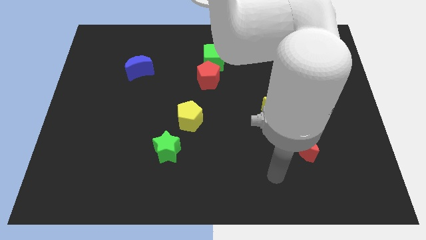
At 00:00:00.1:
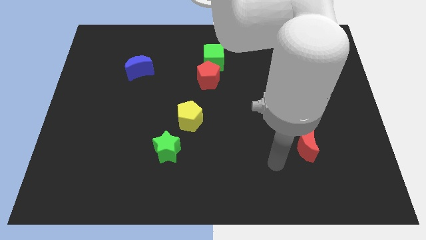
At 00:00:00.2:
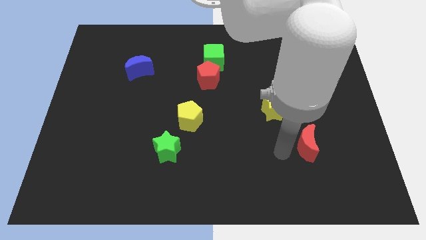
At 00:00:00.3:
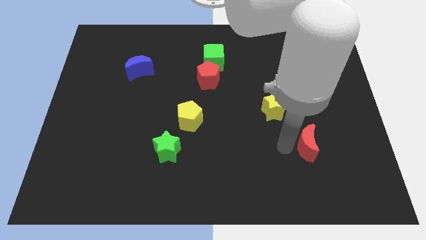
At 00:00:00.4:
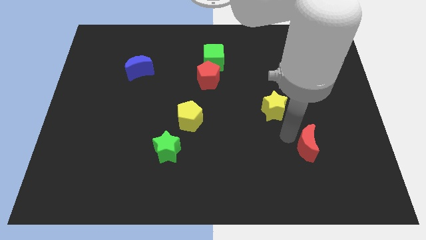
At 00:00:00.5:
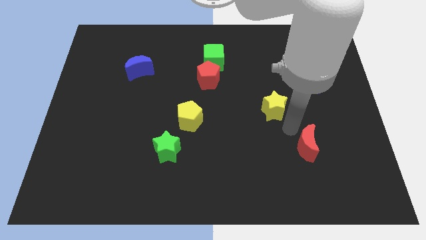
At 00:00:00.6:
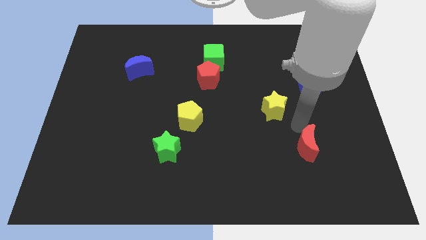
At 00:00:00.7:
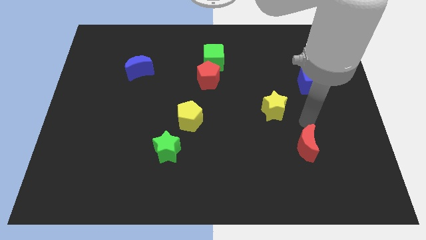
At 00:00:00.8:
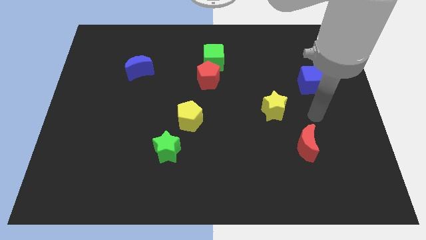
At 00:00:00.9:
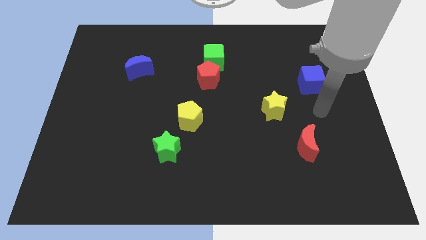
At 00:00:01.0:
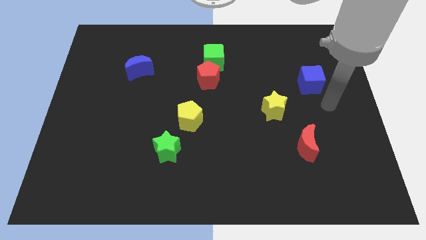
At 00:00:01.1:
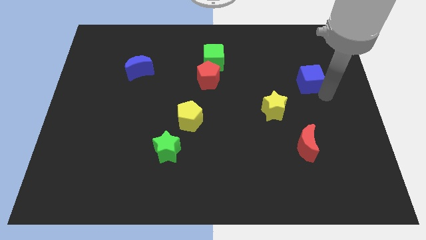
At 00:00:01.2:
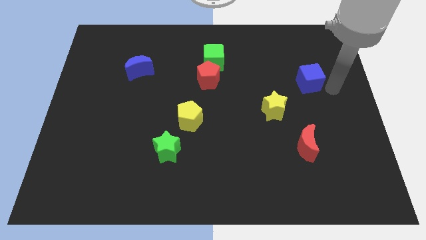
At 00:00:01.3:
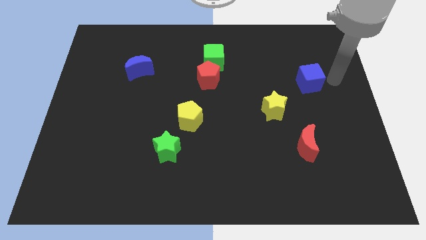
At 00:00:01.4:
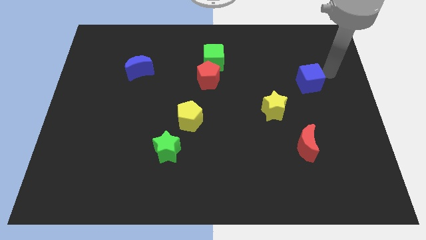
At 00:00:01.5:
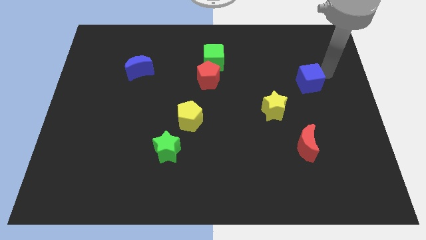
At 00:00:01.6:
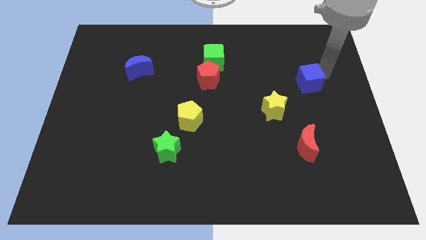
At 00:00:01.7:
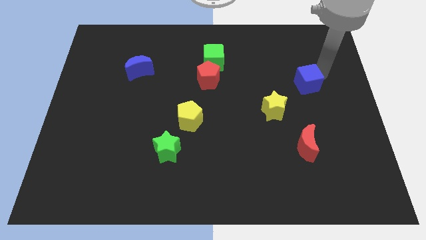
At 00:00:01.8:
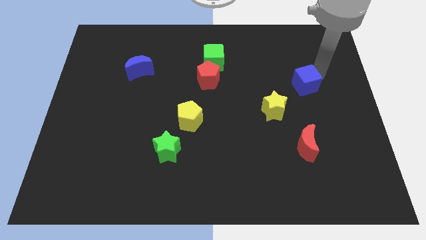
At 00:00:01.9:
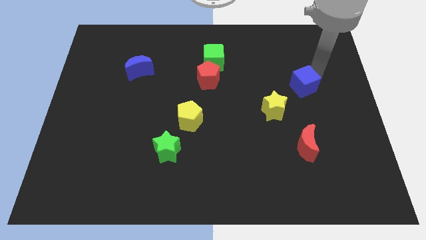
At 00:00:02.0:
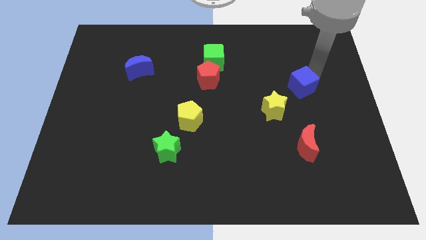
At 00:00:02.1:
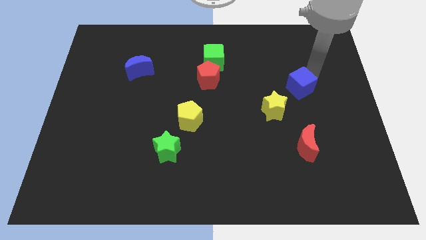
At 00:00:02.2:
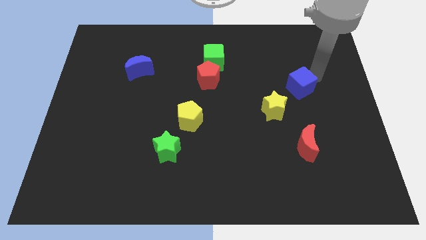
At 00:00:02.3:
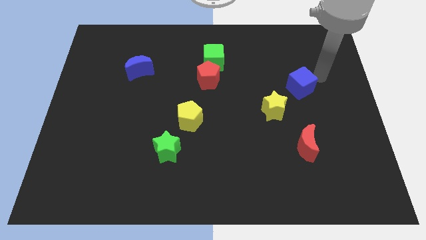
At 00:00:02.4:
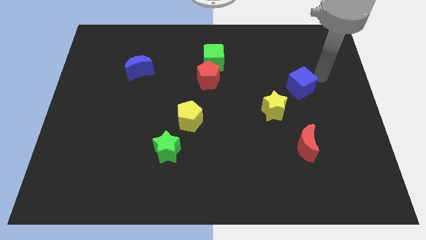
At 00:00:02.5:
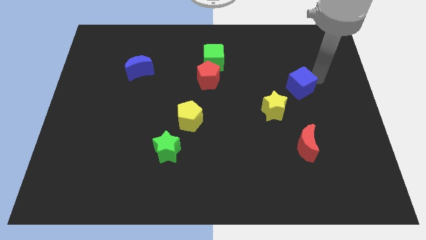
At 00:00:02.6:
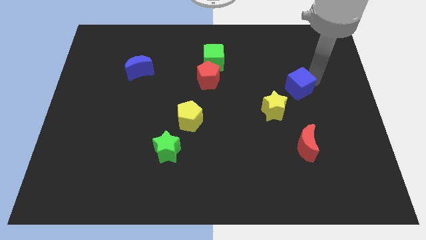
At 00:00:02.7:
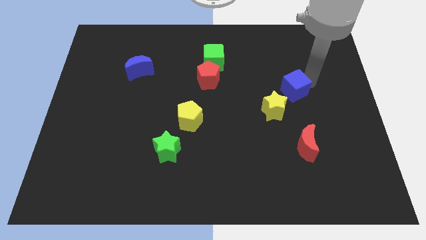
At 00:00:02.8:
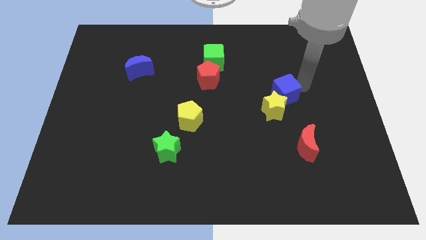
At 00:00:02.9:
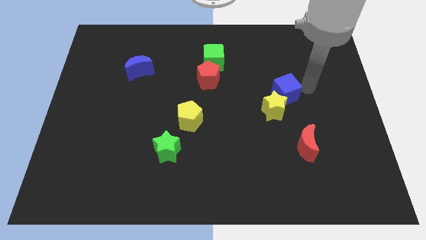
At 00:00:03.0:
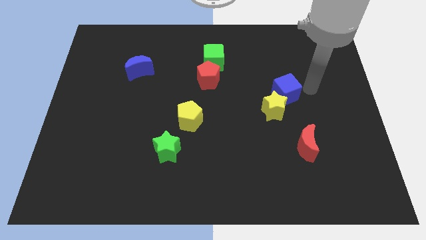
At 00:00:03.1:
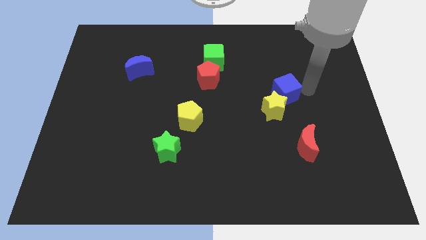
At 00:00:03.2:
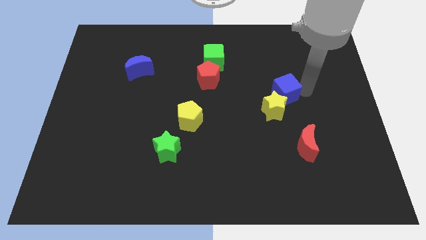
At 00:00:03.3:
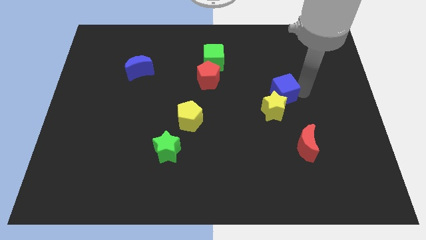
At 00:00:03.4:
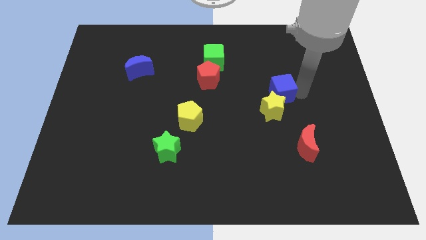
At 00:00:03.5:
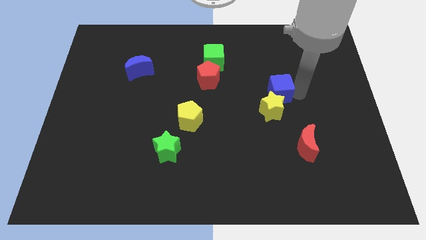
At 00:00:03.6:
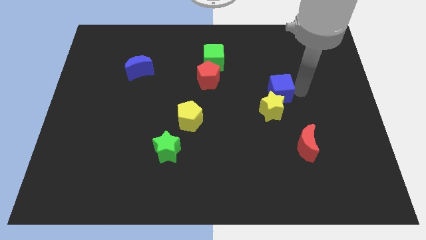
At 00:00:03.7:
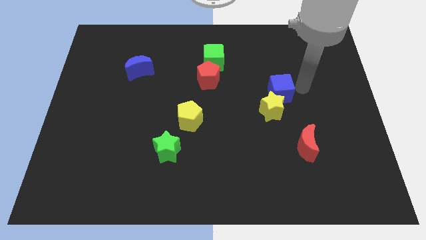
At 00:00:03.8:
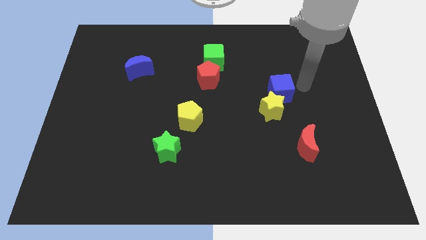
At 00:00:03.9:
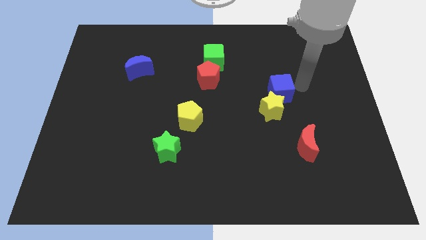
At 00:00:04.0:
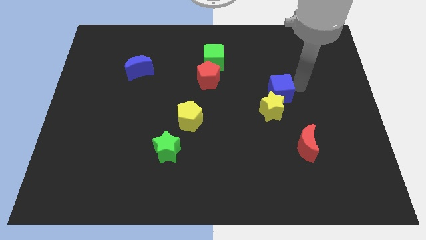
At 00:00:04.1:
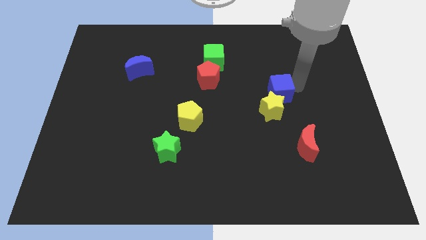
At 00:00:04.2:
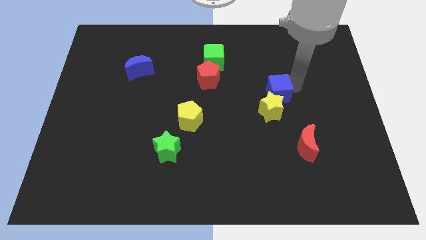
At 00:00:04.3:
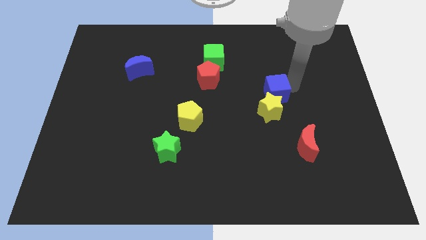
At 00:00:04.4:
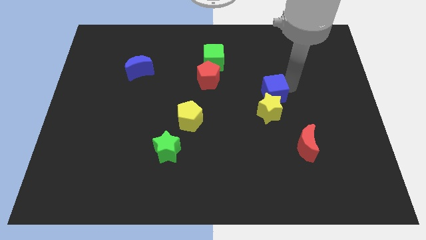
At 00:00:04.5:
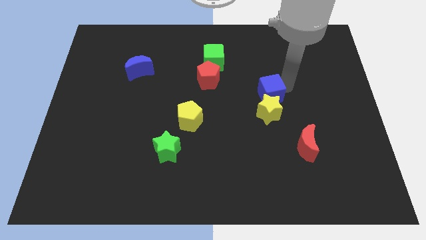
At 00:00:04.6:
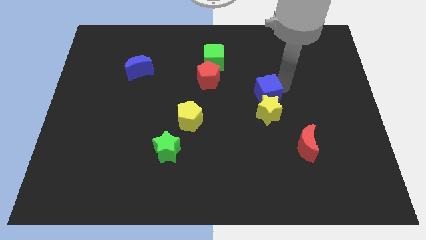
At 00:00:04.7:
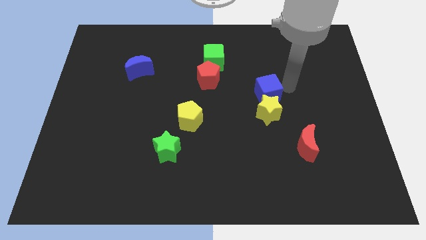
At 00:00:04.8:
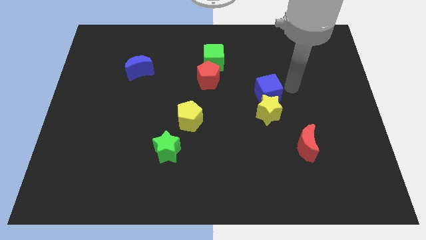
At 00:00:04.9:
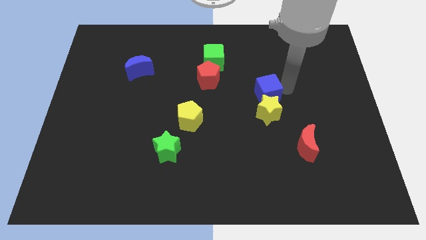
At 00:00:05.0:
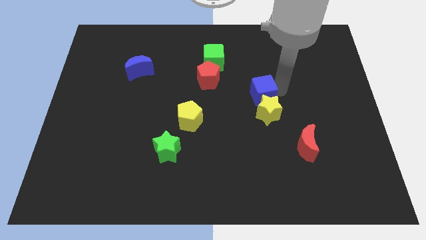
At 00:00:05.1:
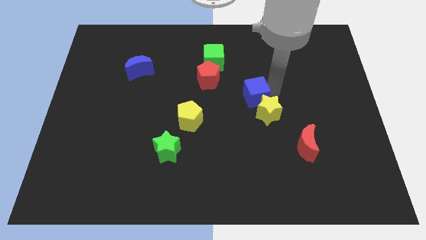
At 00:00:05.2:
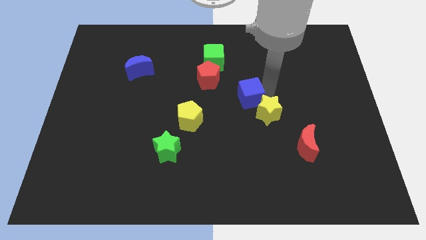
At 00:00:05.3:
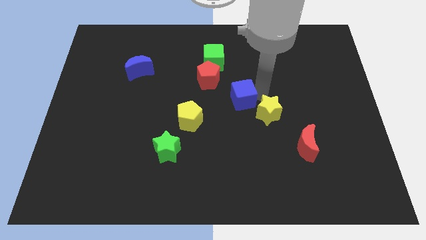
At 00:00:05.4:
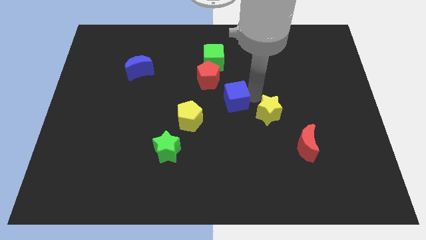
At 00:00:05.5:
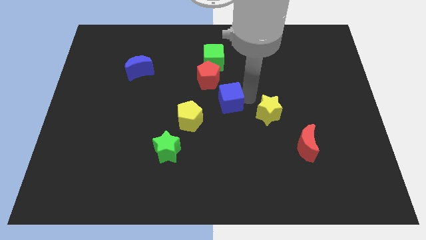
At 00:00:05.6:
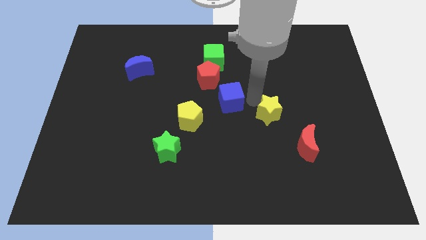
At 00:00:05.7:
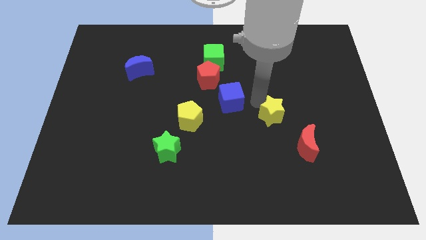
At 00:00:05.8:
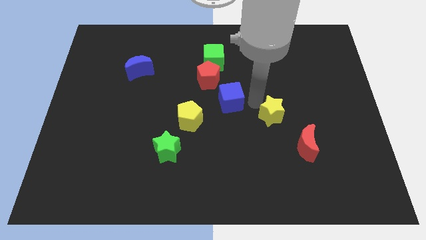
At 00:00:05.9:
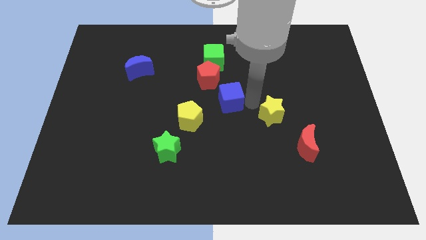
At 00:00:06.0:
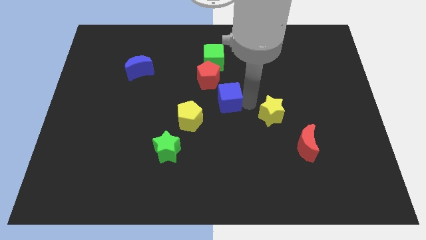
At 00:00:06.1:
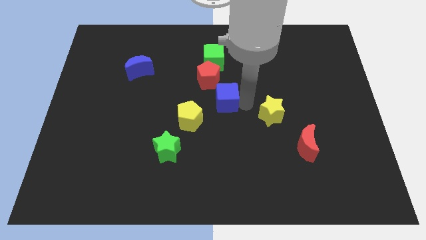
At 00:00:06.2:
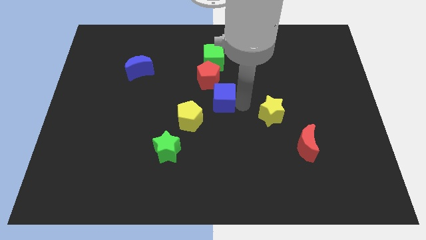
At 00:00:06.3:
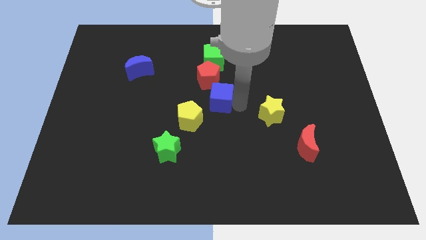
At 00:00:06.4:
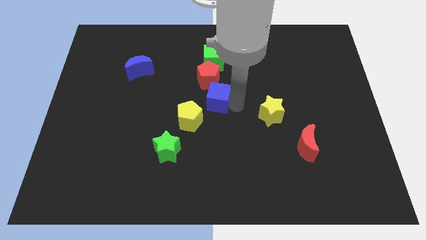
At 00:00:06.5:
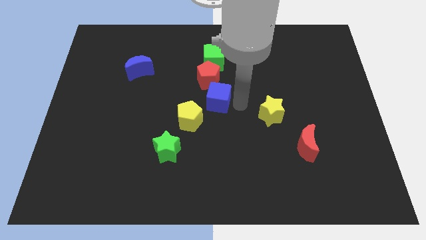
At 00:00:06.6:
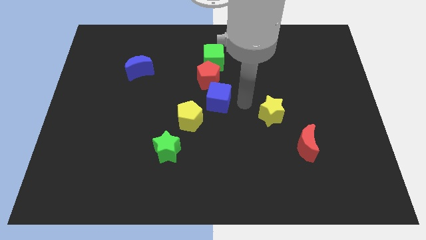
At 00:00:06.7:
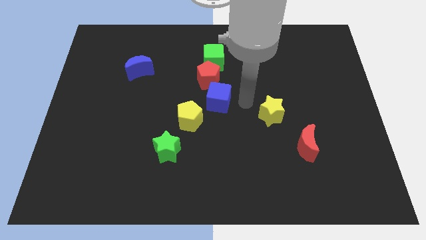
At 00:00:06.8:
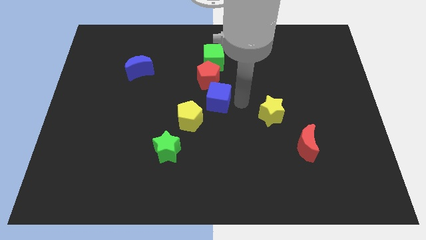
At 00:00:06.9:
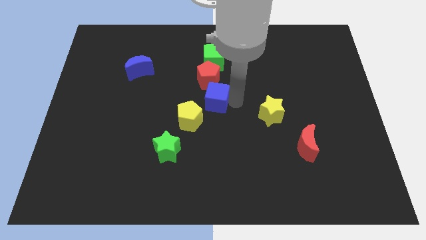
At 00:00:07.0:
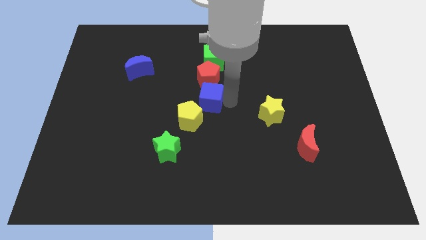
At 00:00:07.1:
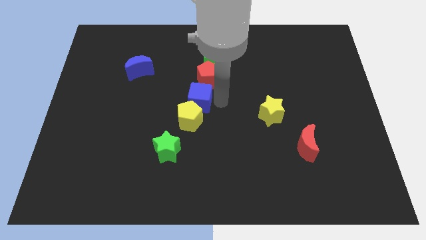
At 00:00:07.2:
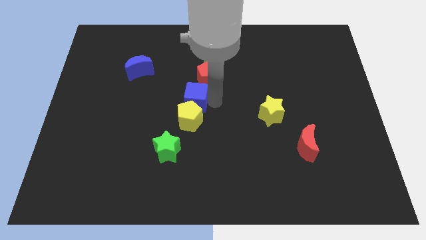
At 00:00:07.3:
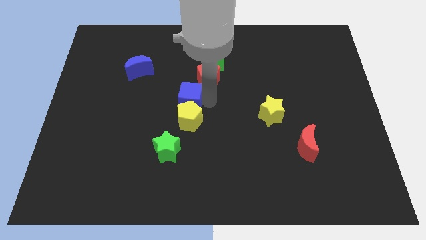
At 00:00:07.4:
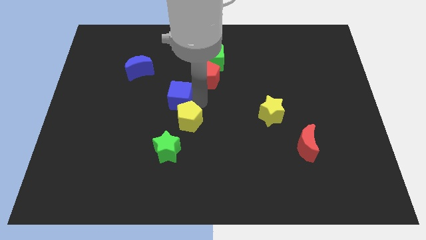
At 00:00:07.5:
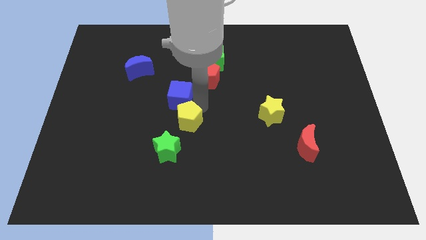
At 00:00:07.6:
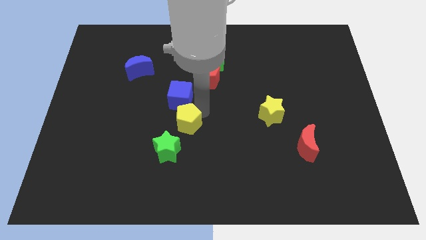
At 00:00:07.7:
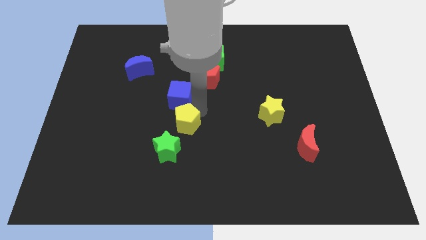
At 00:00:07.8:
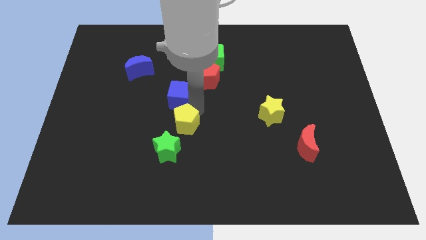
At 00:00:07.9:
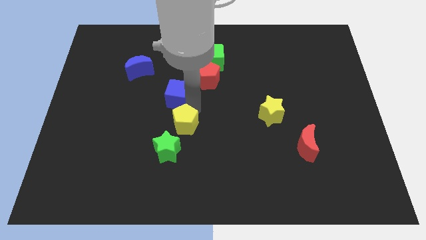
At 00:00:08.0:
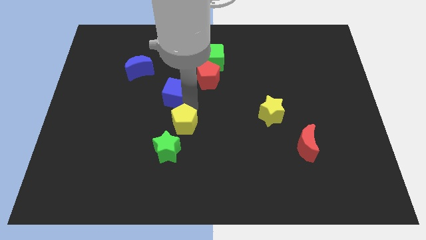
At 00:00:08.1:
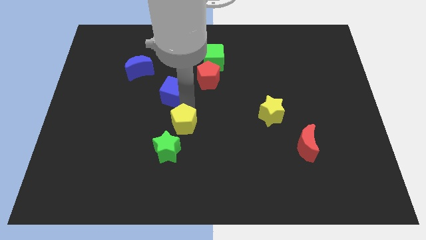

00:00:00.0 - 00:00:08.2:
slide the blue cube to the bottom right of the blue moon
